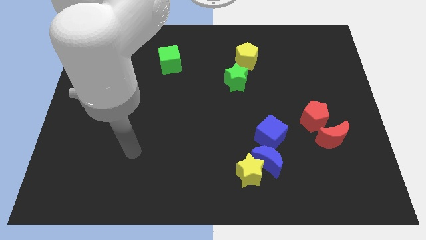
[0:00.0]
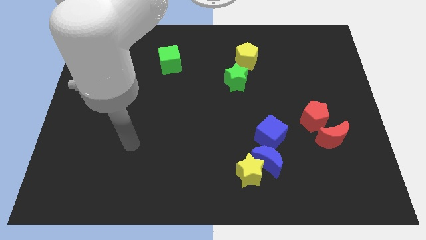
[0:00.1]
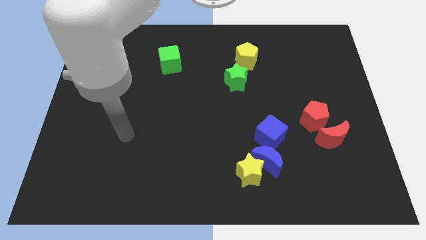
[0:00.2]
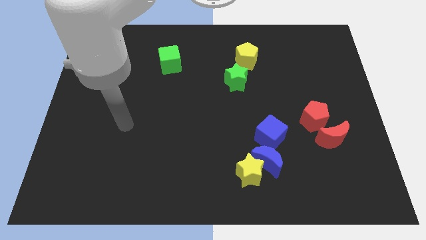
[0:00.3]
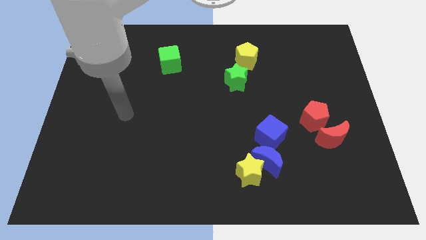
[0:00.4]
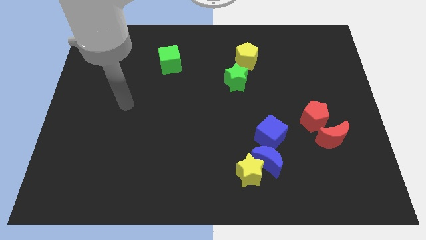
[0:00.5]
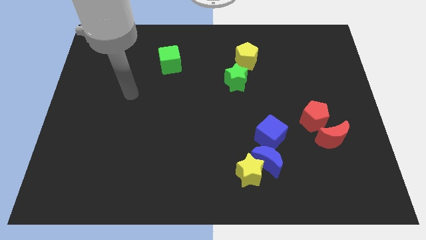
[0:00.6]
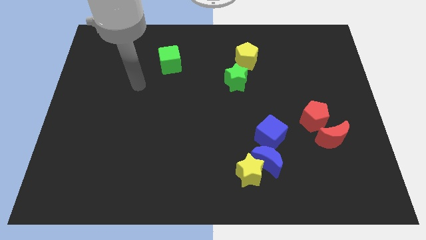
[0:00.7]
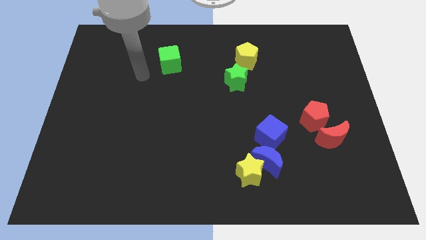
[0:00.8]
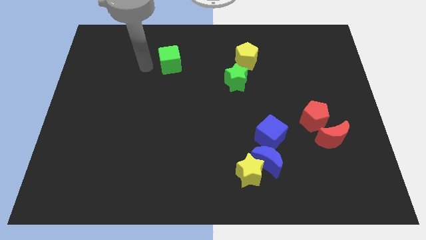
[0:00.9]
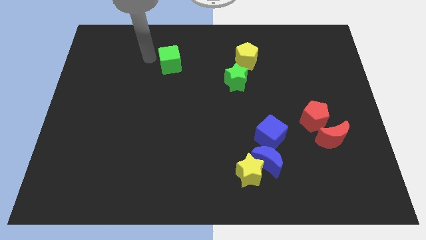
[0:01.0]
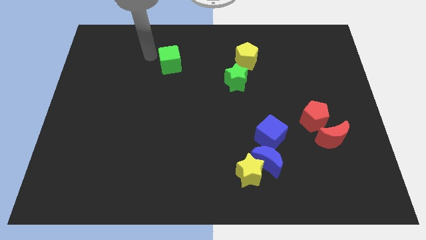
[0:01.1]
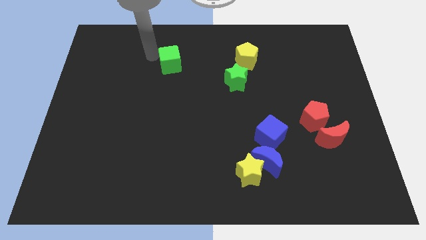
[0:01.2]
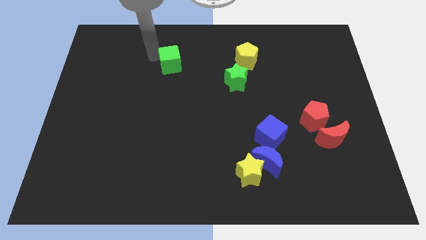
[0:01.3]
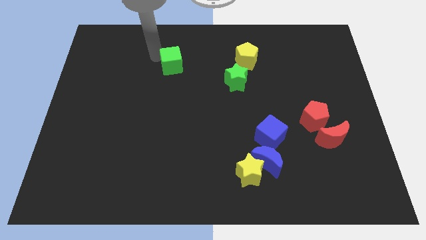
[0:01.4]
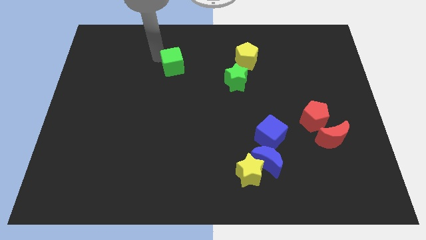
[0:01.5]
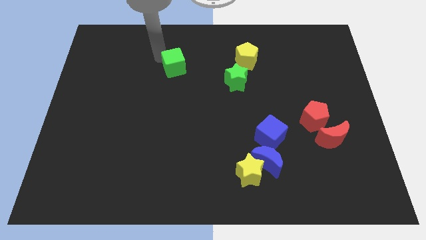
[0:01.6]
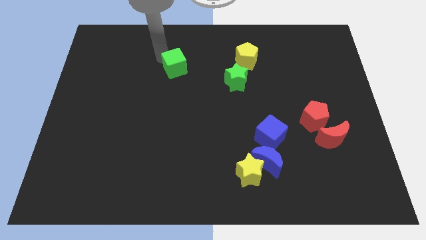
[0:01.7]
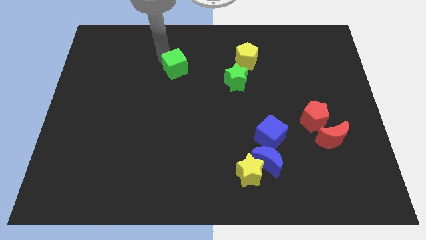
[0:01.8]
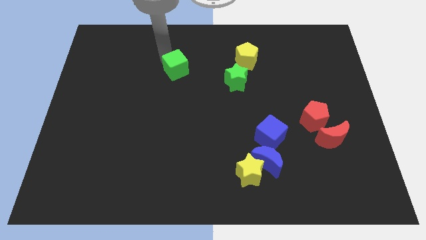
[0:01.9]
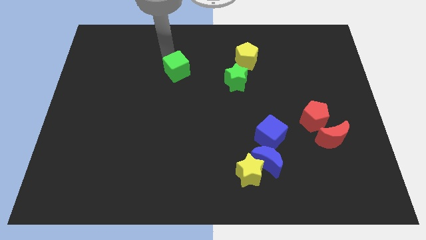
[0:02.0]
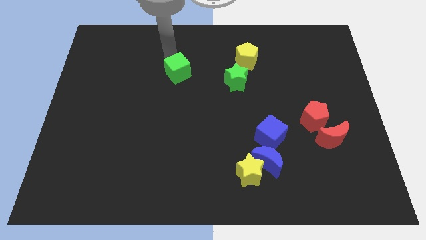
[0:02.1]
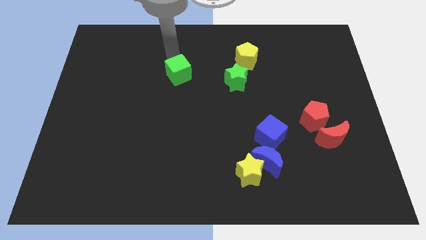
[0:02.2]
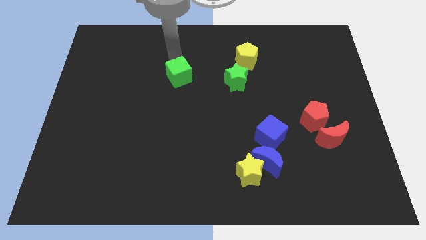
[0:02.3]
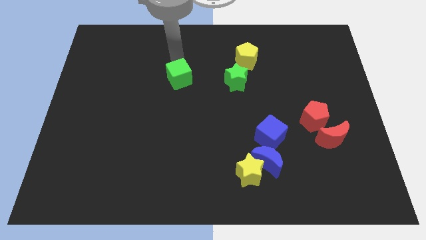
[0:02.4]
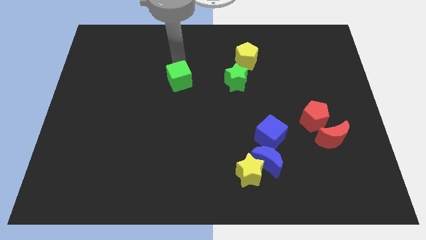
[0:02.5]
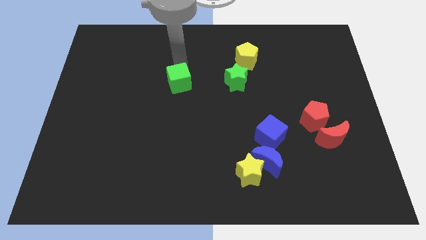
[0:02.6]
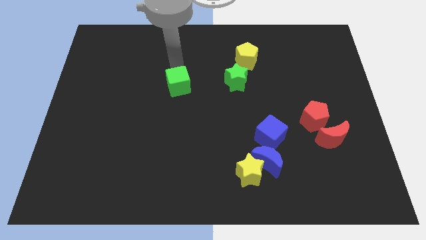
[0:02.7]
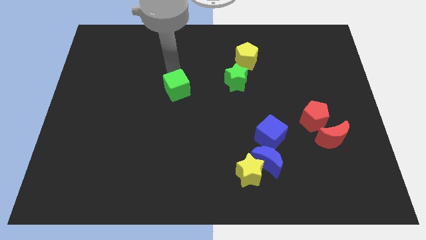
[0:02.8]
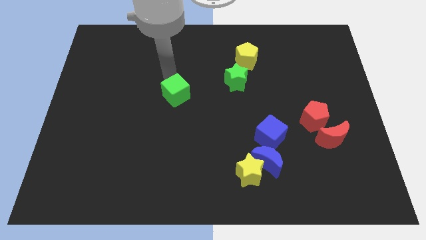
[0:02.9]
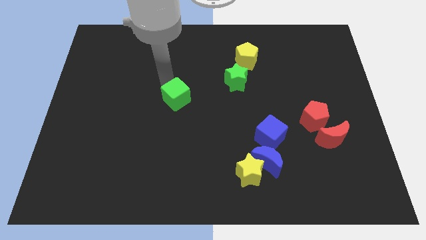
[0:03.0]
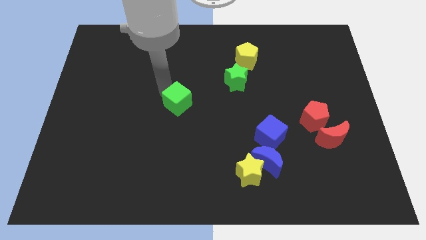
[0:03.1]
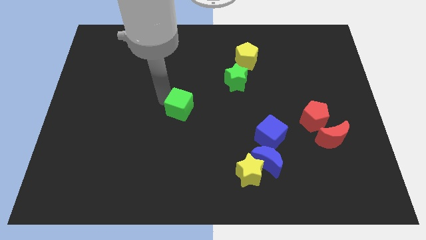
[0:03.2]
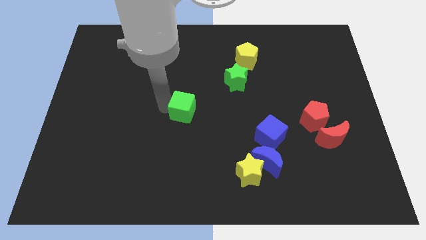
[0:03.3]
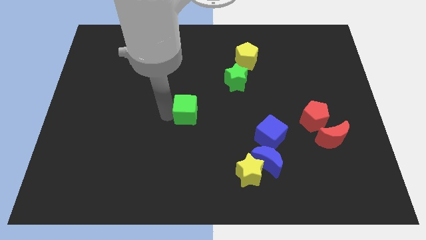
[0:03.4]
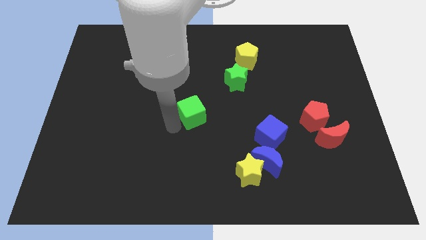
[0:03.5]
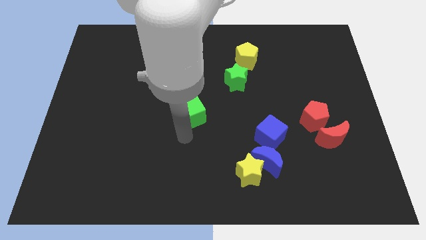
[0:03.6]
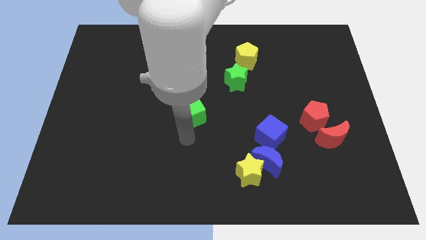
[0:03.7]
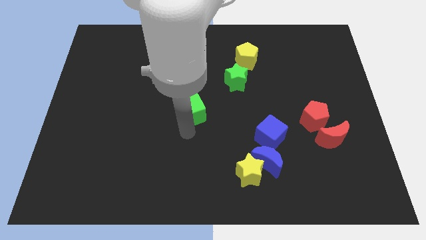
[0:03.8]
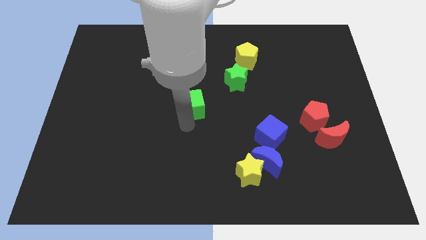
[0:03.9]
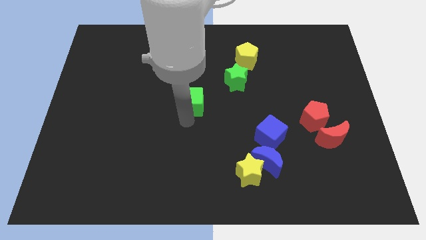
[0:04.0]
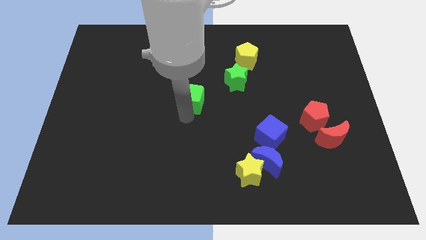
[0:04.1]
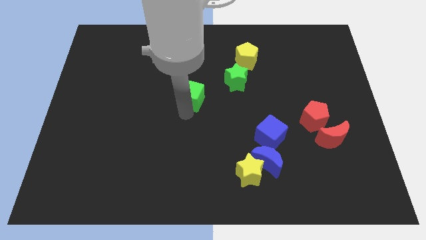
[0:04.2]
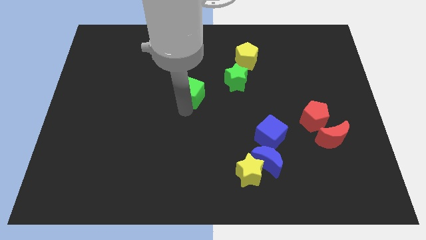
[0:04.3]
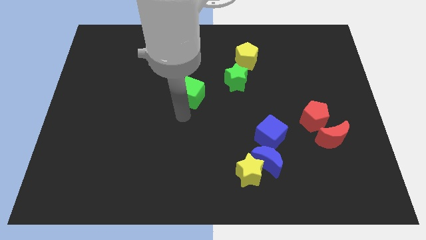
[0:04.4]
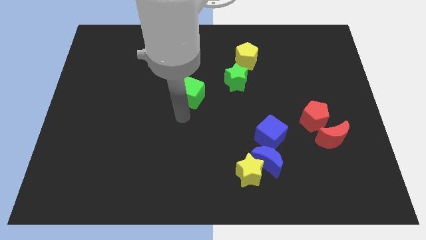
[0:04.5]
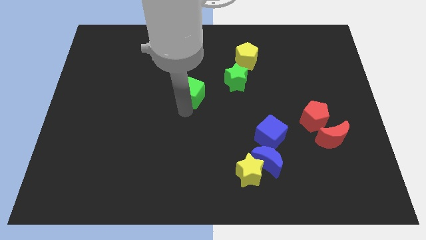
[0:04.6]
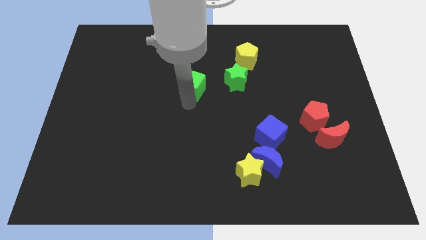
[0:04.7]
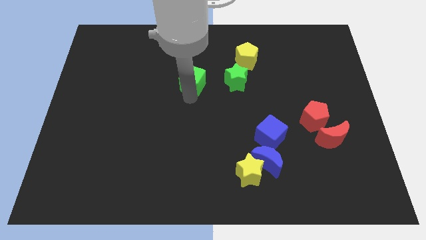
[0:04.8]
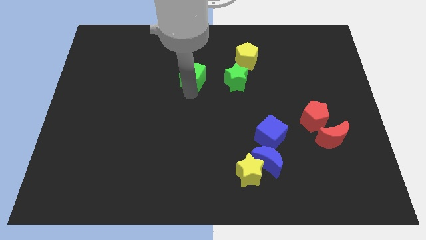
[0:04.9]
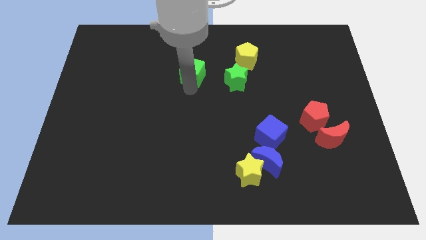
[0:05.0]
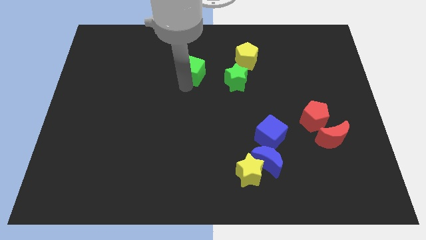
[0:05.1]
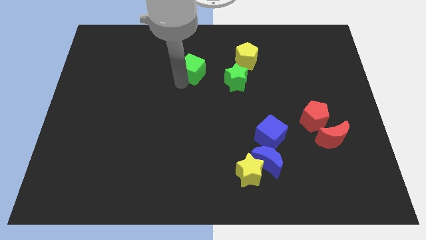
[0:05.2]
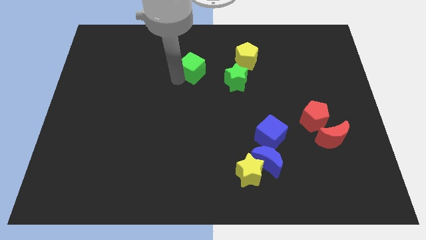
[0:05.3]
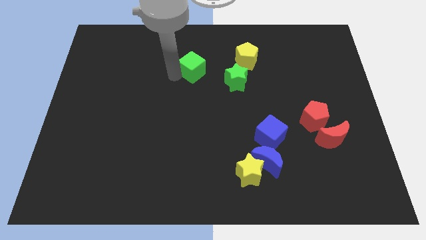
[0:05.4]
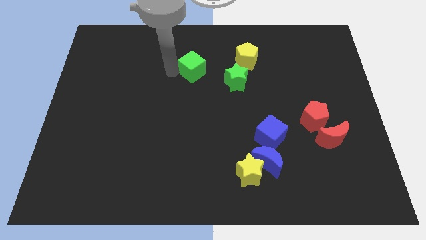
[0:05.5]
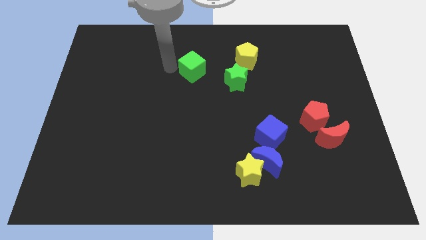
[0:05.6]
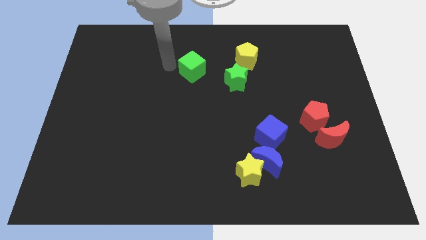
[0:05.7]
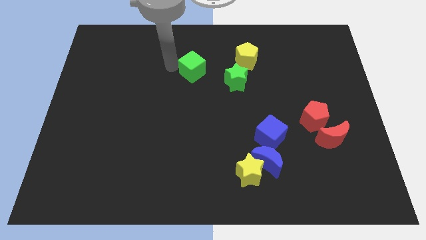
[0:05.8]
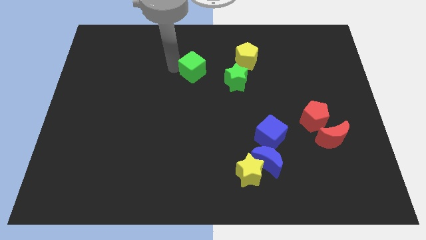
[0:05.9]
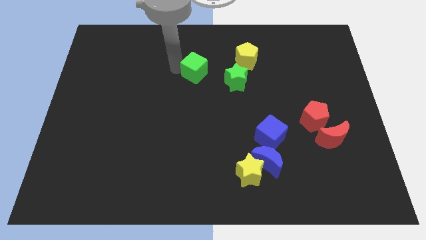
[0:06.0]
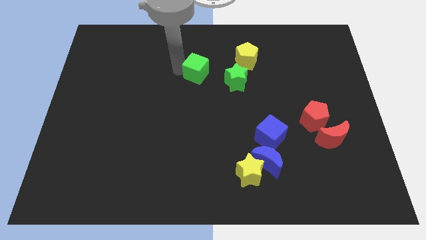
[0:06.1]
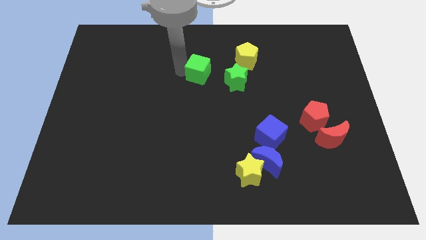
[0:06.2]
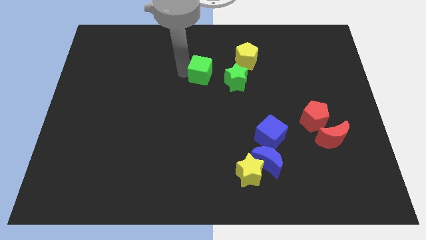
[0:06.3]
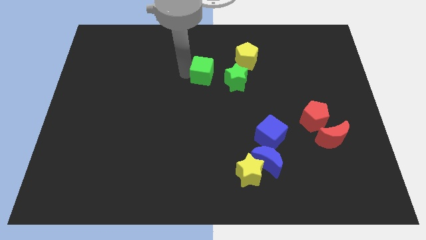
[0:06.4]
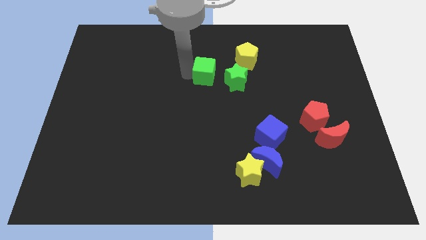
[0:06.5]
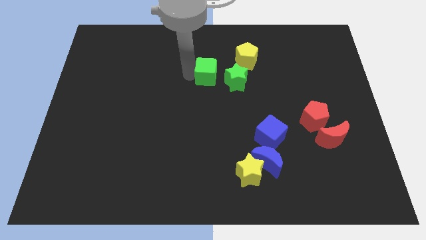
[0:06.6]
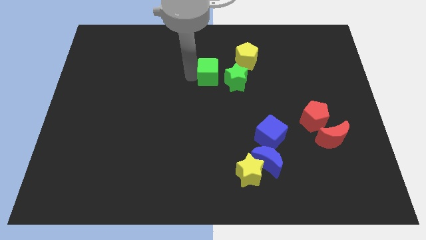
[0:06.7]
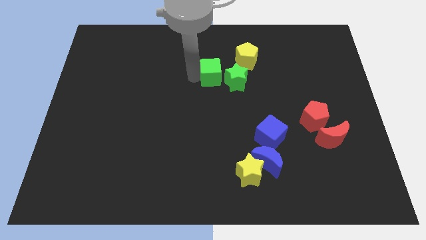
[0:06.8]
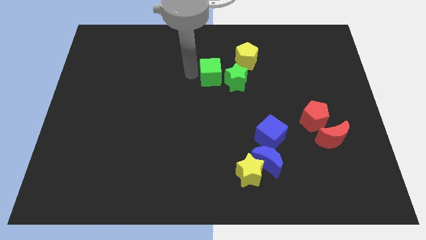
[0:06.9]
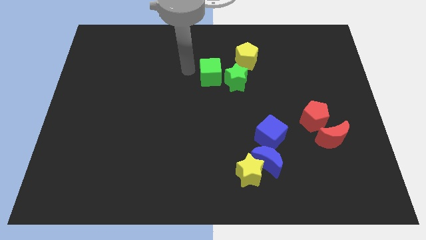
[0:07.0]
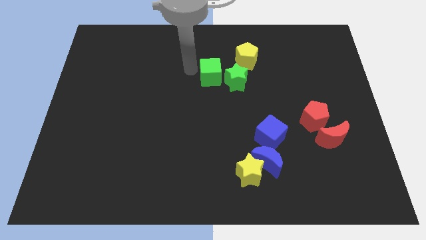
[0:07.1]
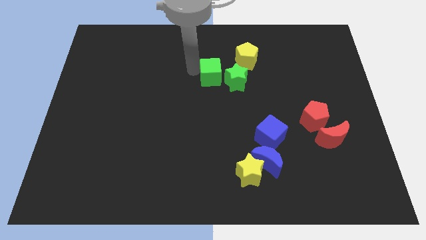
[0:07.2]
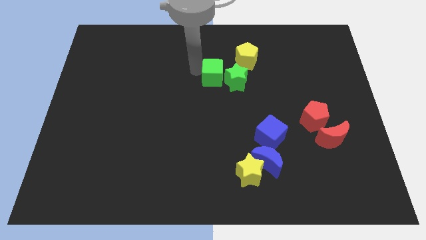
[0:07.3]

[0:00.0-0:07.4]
put the green cube to the green star
